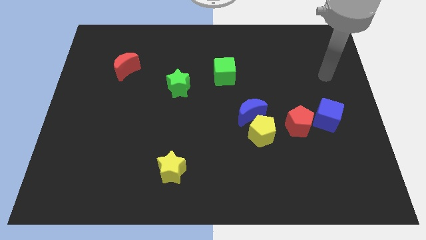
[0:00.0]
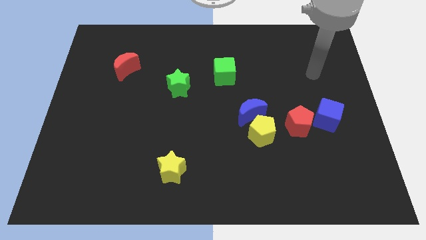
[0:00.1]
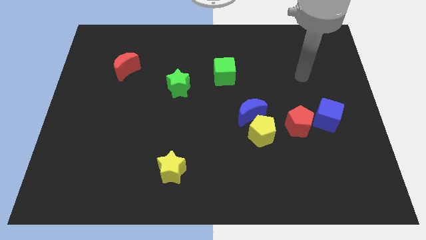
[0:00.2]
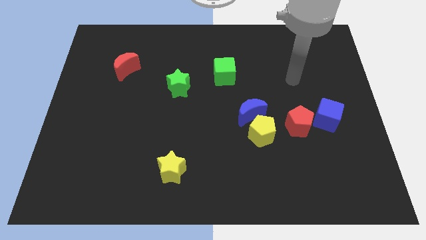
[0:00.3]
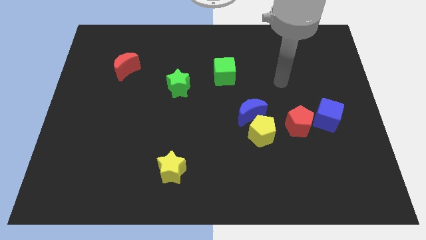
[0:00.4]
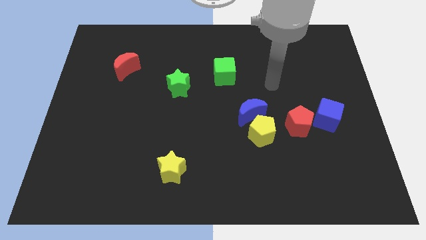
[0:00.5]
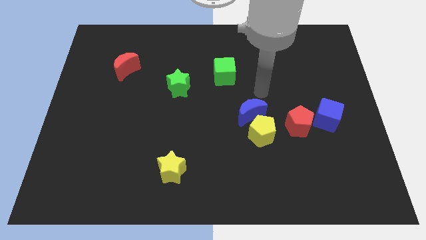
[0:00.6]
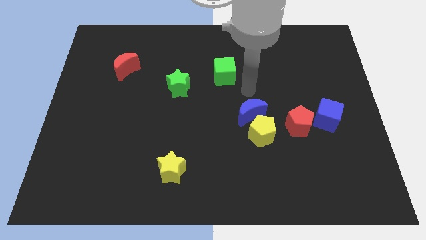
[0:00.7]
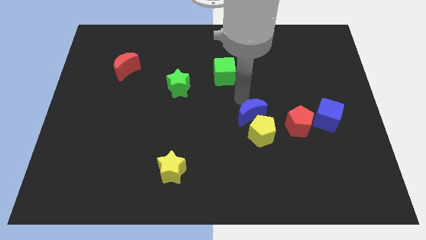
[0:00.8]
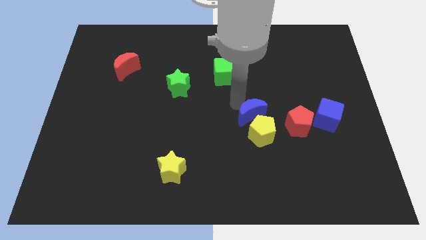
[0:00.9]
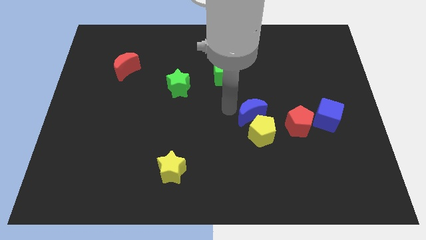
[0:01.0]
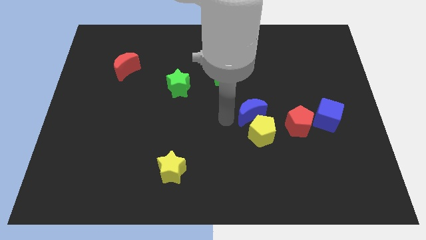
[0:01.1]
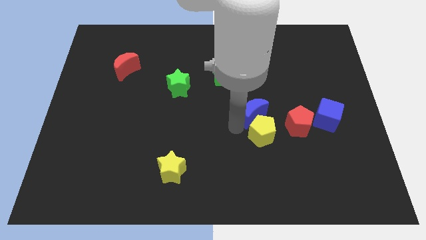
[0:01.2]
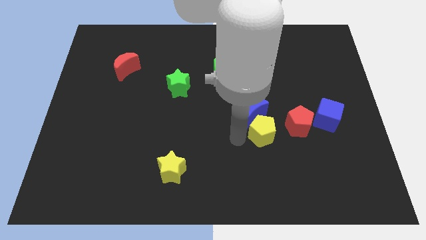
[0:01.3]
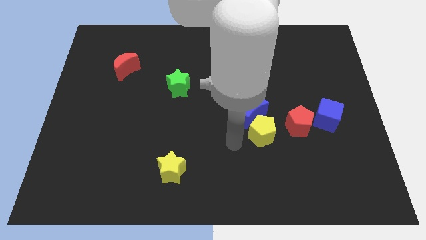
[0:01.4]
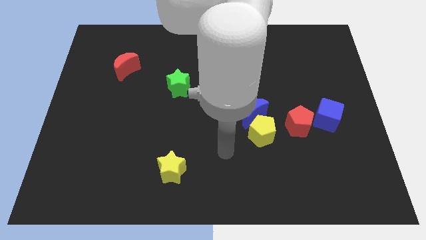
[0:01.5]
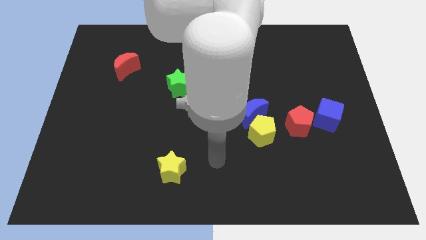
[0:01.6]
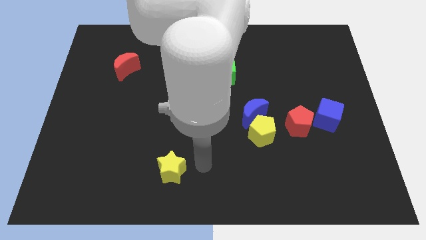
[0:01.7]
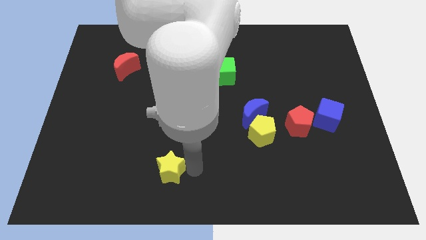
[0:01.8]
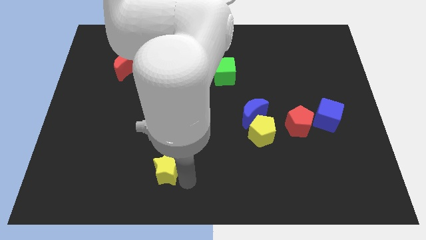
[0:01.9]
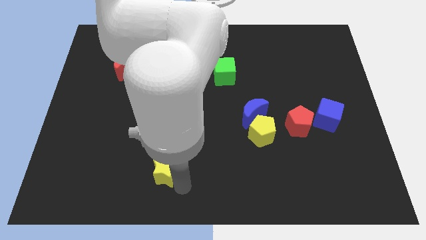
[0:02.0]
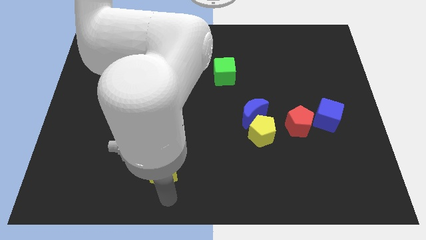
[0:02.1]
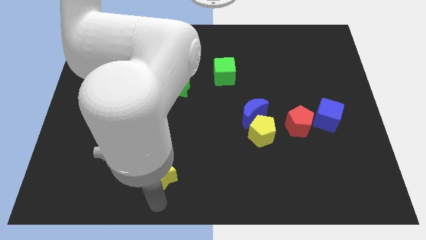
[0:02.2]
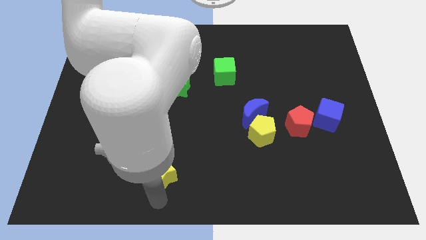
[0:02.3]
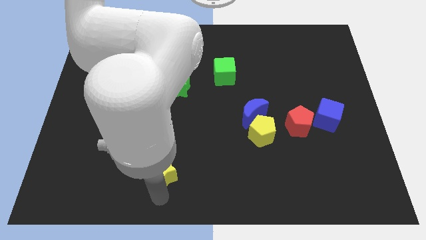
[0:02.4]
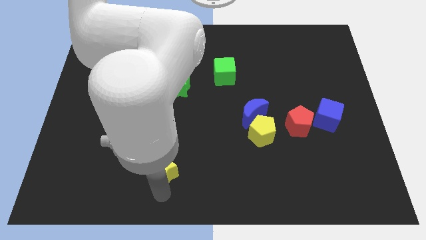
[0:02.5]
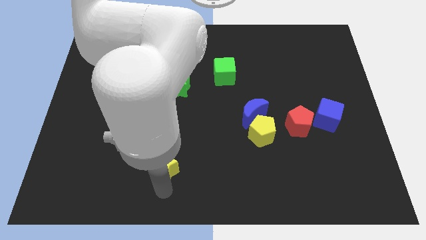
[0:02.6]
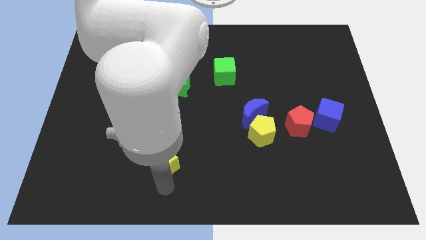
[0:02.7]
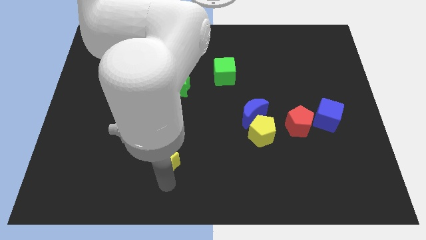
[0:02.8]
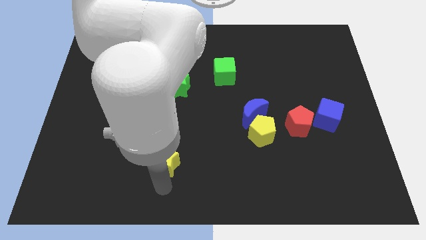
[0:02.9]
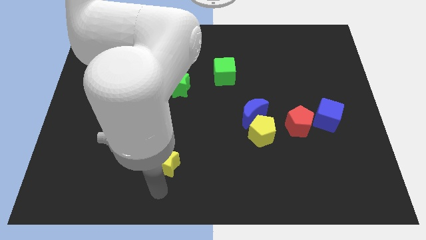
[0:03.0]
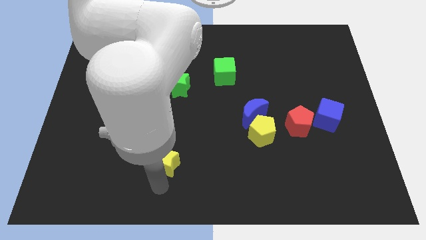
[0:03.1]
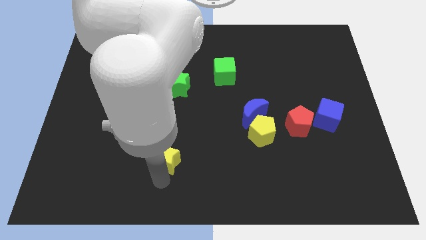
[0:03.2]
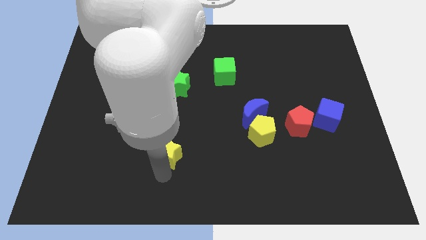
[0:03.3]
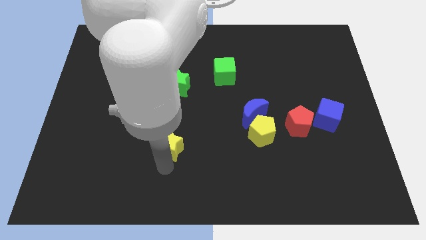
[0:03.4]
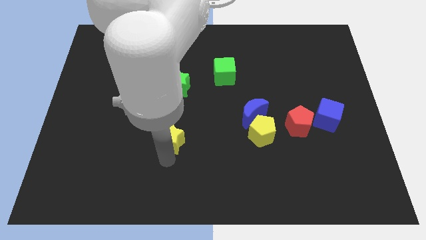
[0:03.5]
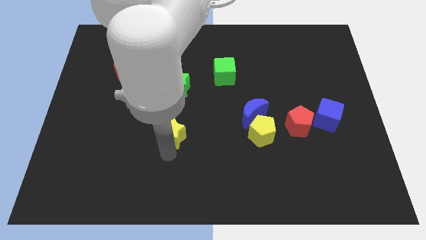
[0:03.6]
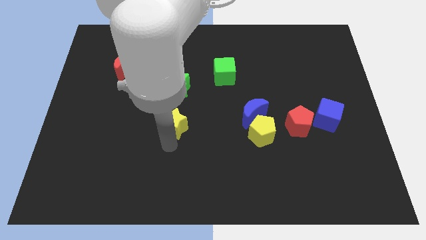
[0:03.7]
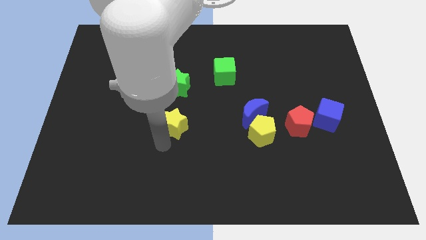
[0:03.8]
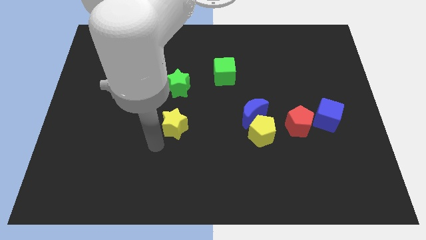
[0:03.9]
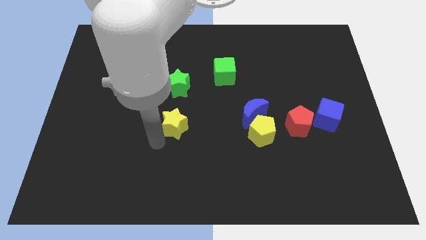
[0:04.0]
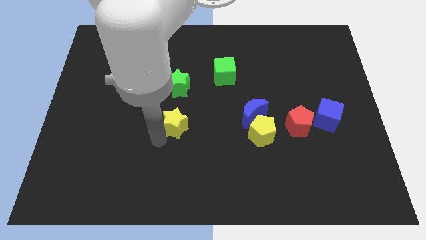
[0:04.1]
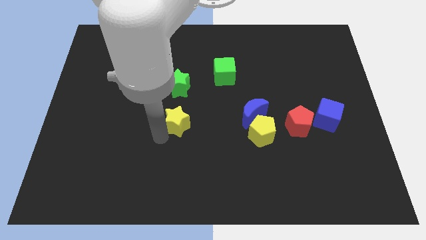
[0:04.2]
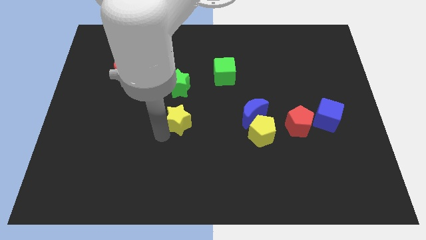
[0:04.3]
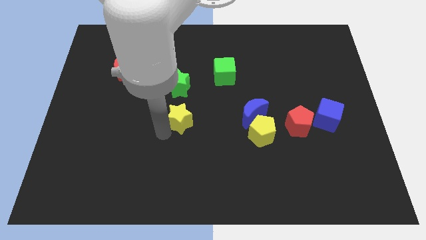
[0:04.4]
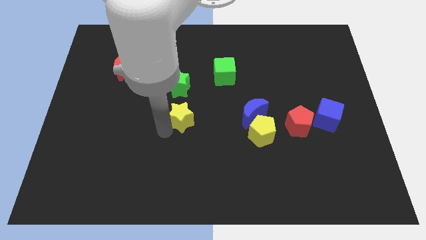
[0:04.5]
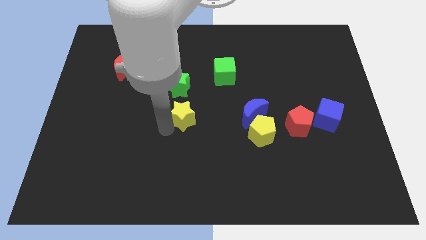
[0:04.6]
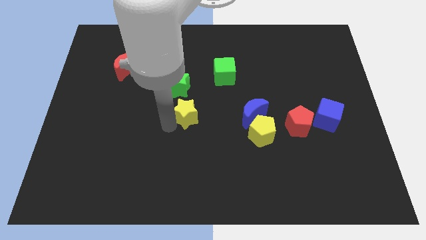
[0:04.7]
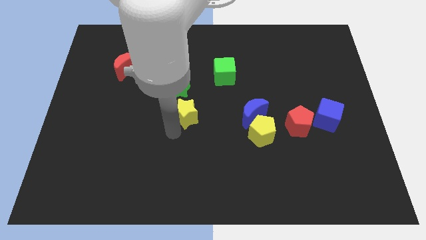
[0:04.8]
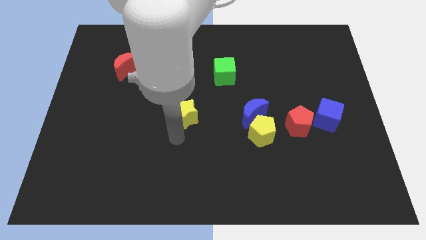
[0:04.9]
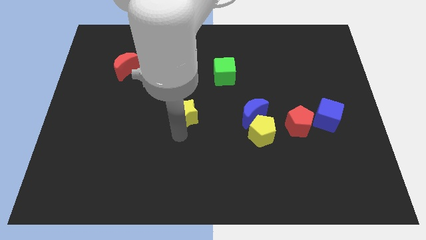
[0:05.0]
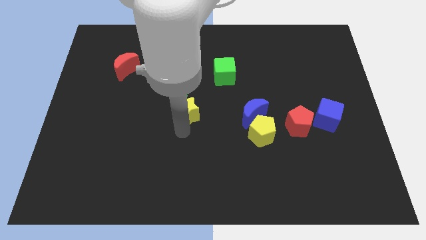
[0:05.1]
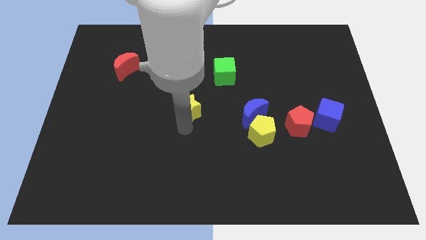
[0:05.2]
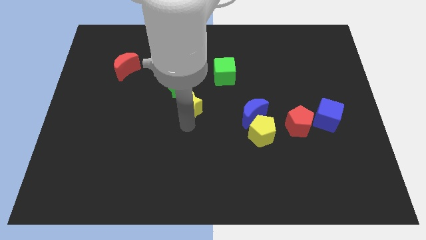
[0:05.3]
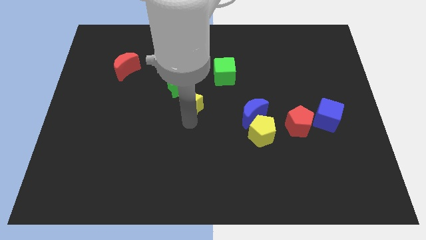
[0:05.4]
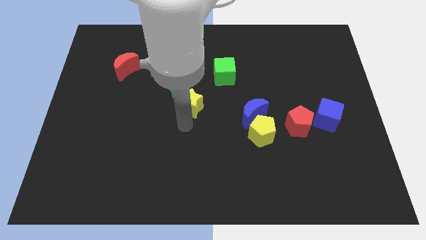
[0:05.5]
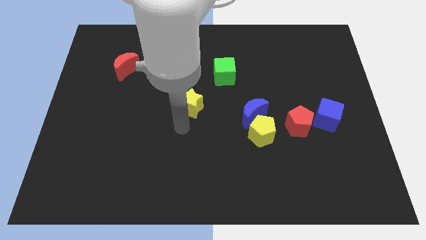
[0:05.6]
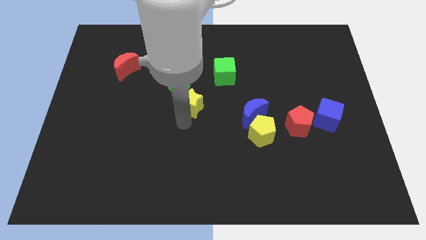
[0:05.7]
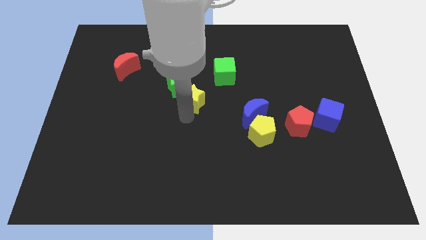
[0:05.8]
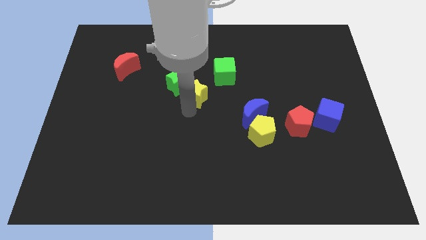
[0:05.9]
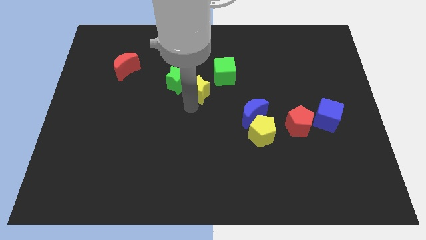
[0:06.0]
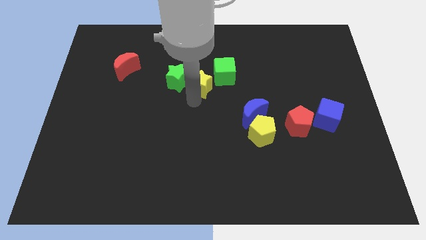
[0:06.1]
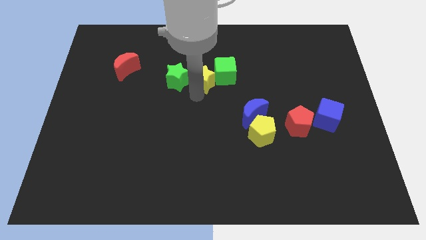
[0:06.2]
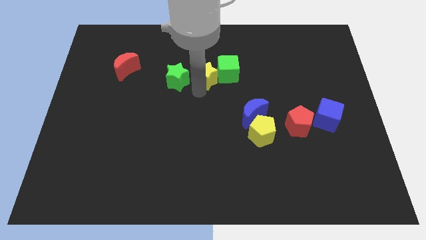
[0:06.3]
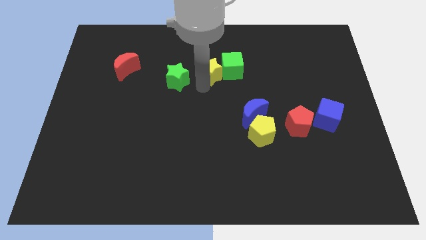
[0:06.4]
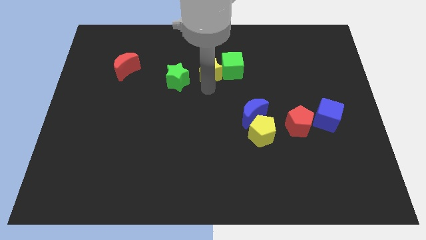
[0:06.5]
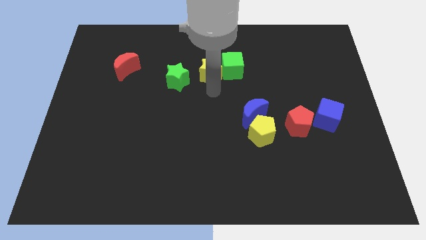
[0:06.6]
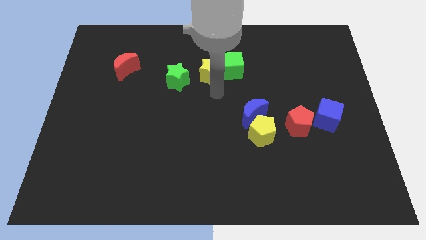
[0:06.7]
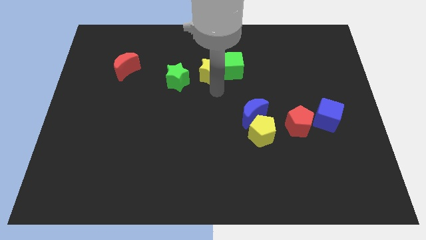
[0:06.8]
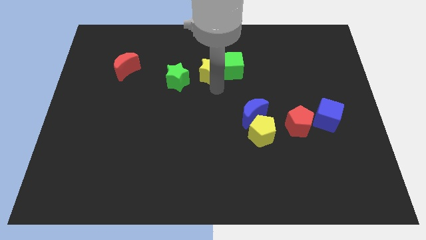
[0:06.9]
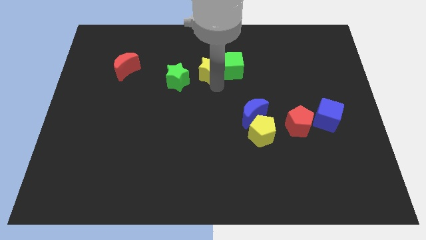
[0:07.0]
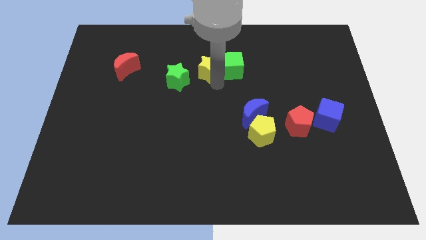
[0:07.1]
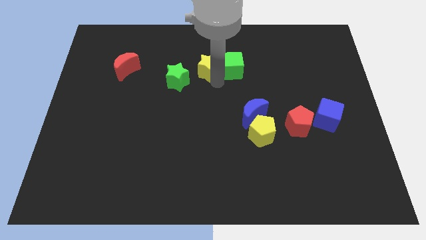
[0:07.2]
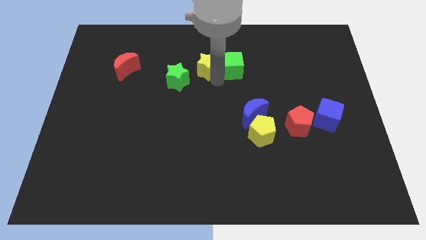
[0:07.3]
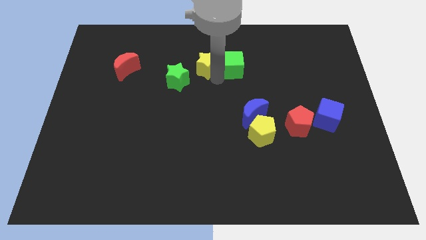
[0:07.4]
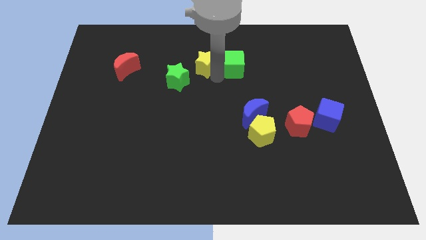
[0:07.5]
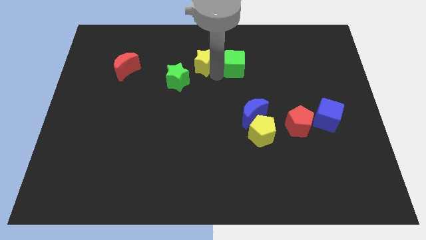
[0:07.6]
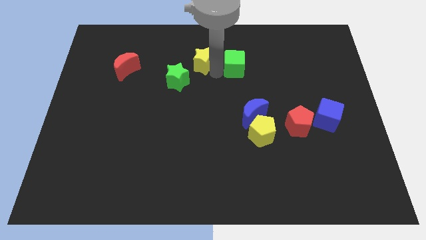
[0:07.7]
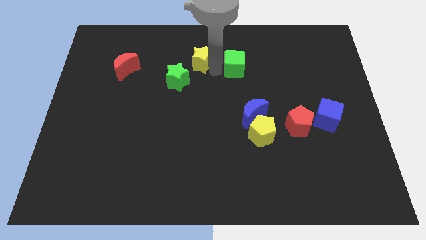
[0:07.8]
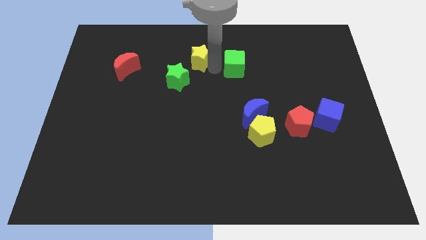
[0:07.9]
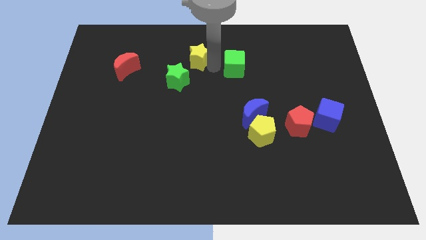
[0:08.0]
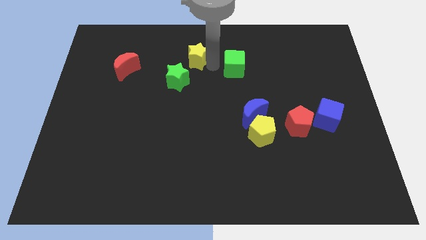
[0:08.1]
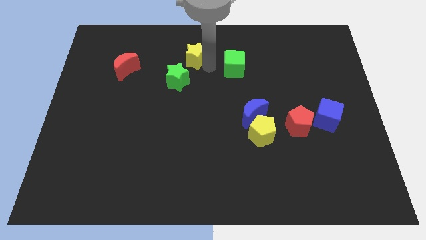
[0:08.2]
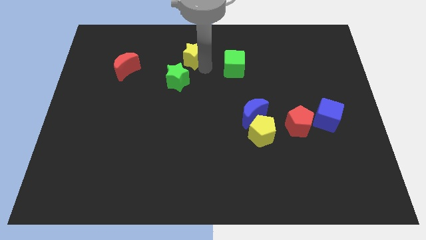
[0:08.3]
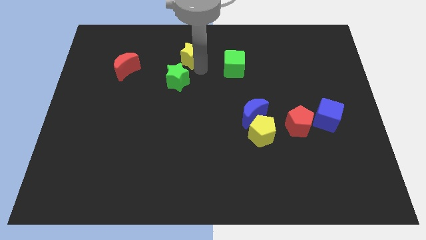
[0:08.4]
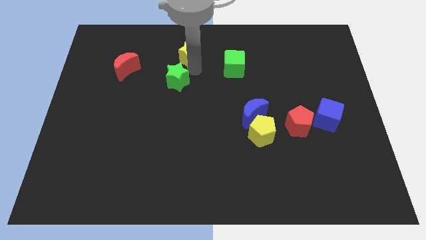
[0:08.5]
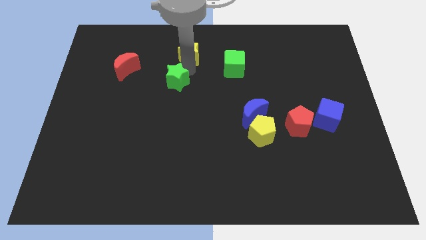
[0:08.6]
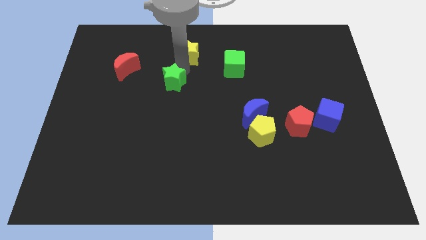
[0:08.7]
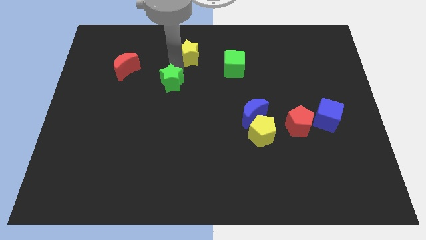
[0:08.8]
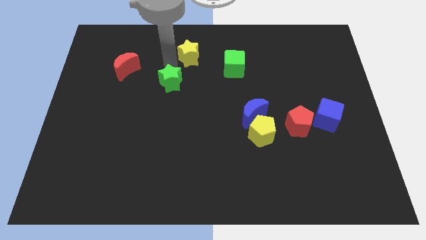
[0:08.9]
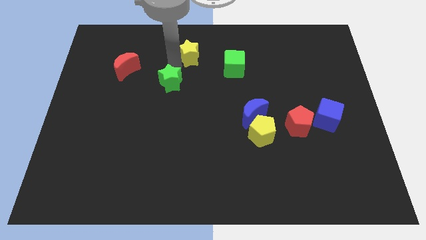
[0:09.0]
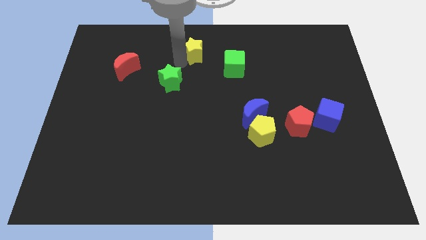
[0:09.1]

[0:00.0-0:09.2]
push the yellow star to the top side
